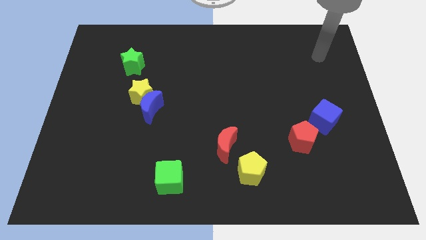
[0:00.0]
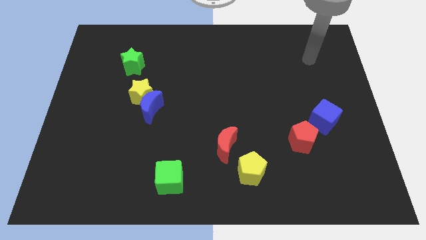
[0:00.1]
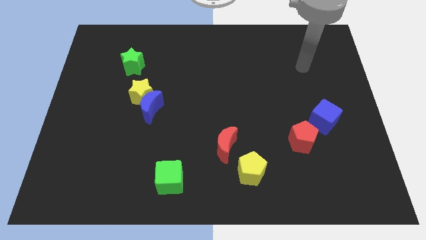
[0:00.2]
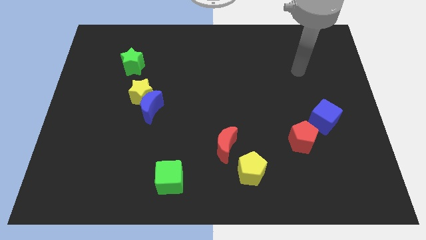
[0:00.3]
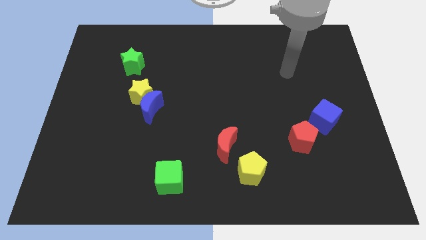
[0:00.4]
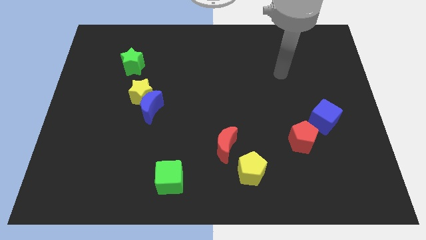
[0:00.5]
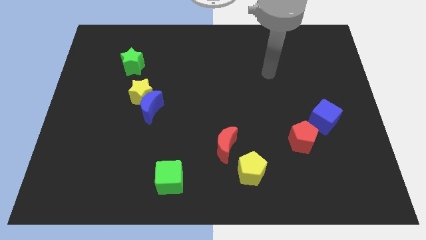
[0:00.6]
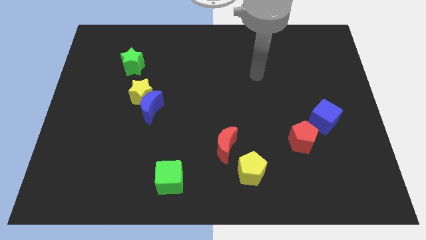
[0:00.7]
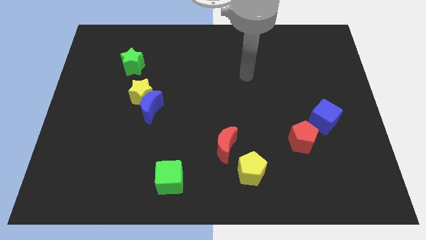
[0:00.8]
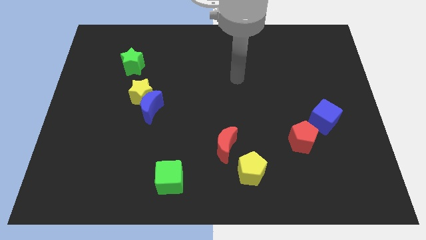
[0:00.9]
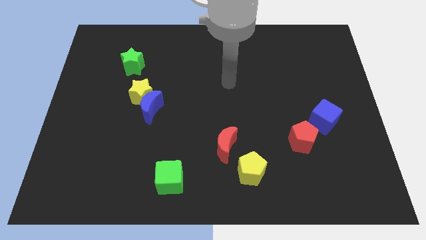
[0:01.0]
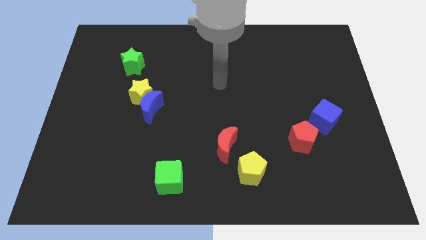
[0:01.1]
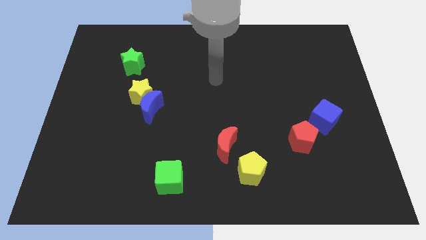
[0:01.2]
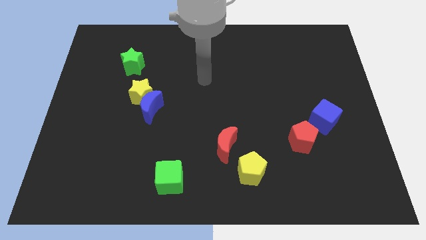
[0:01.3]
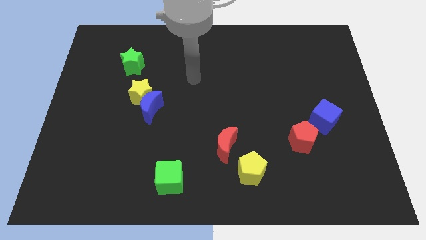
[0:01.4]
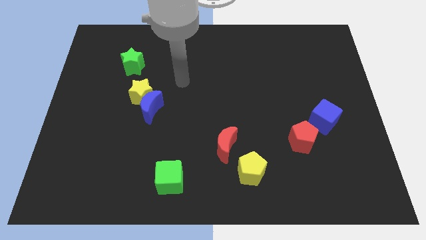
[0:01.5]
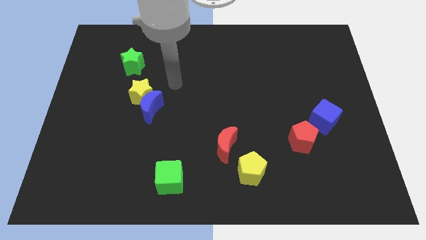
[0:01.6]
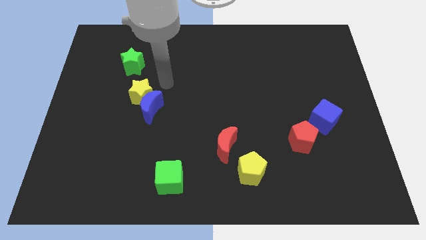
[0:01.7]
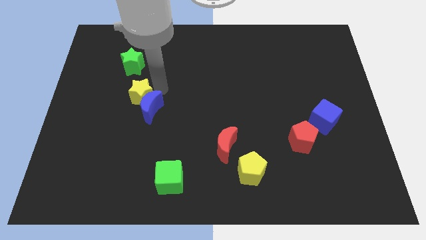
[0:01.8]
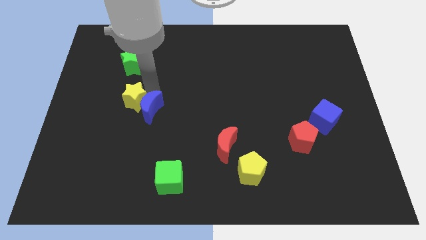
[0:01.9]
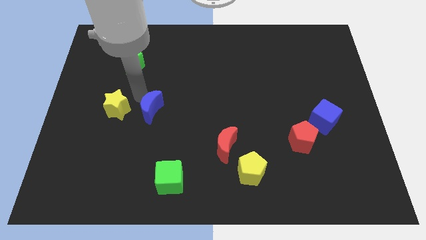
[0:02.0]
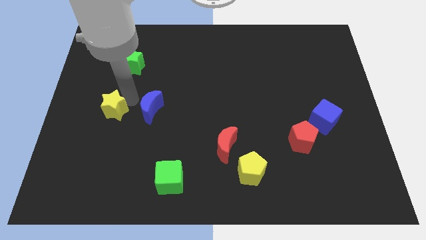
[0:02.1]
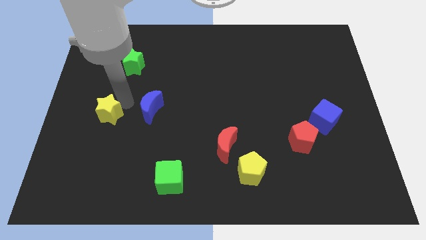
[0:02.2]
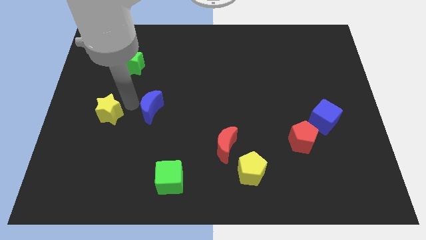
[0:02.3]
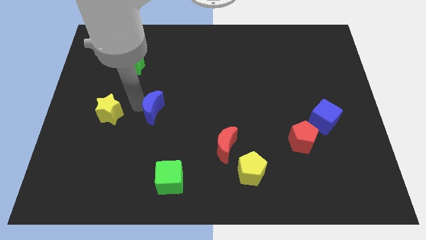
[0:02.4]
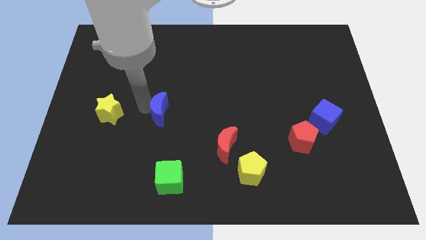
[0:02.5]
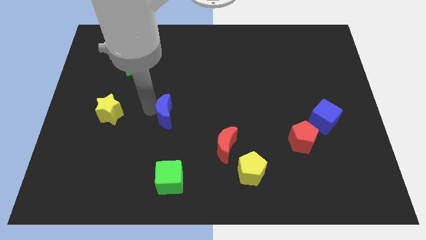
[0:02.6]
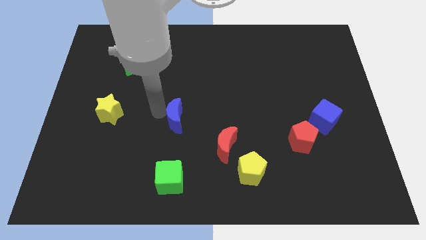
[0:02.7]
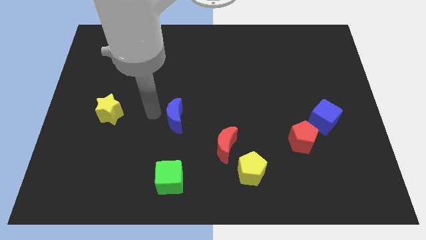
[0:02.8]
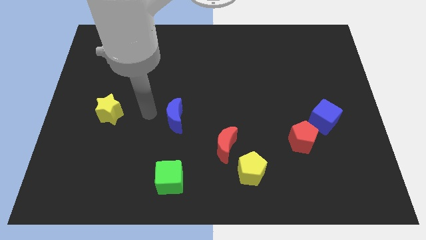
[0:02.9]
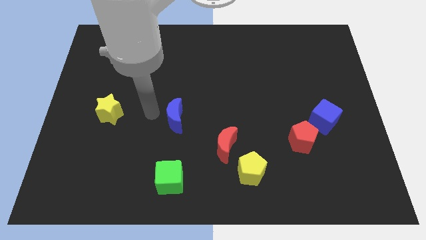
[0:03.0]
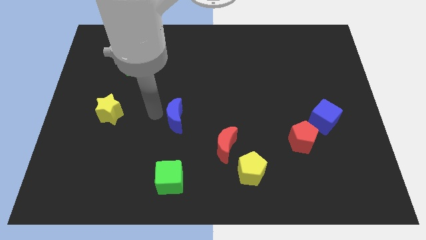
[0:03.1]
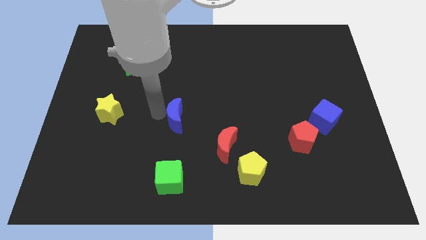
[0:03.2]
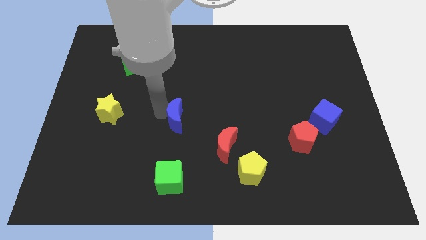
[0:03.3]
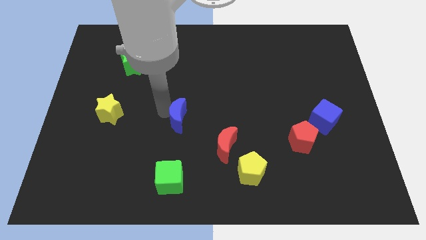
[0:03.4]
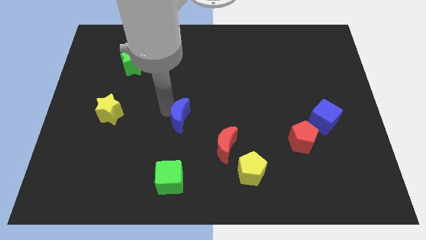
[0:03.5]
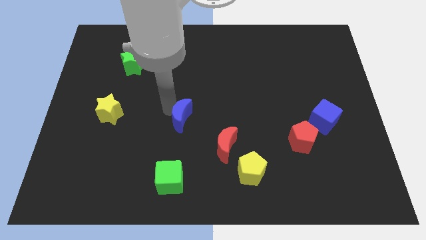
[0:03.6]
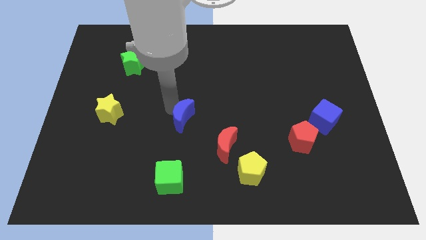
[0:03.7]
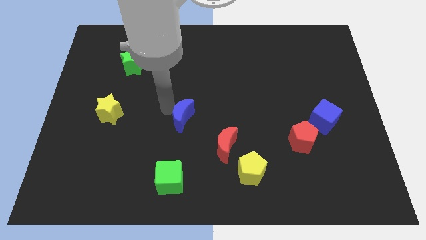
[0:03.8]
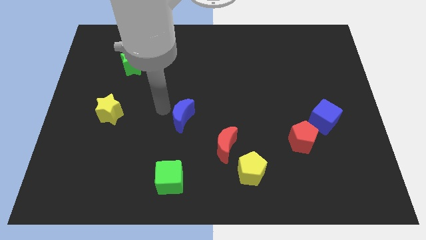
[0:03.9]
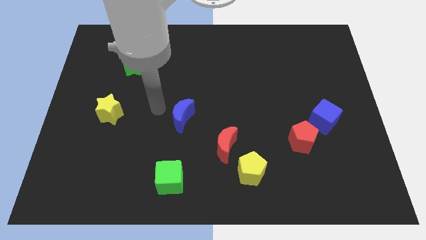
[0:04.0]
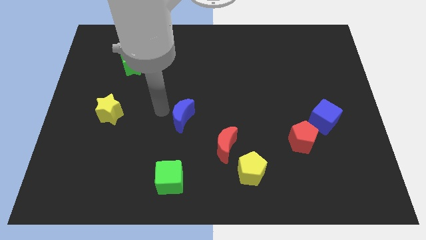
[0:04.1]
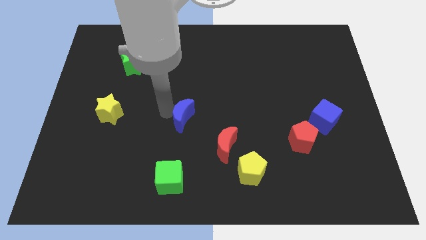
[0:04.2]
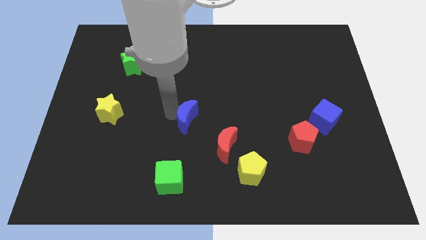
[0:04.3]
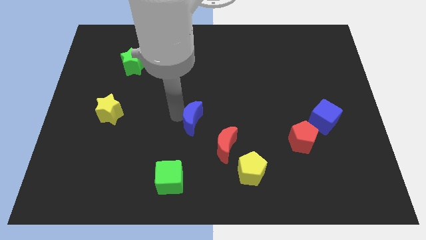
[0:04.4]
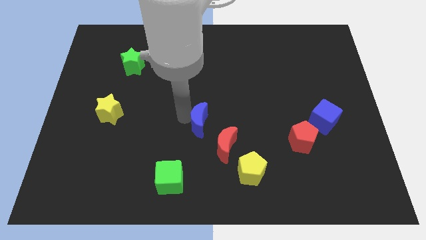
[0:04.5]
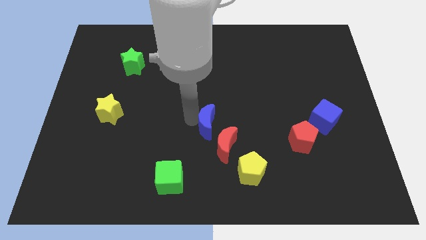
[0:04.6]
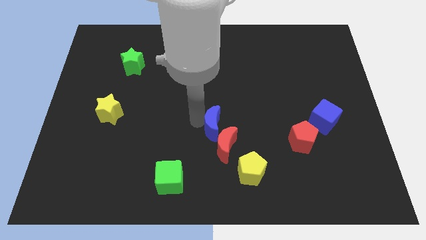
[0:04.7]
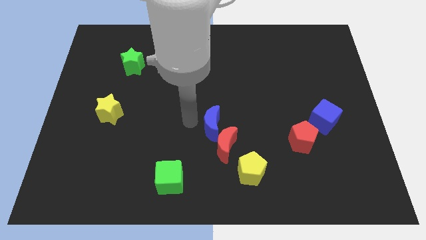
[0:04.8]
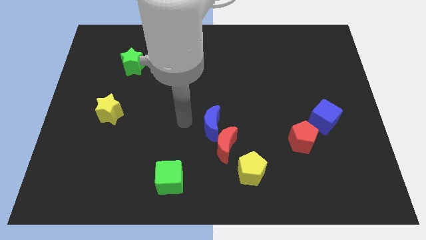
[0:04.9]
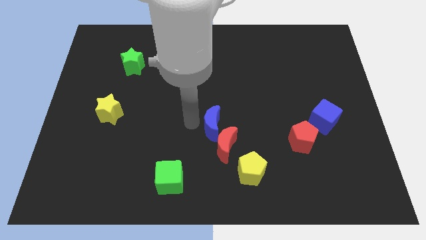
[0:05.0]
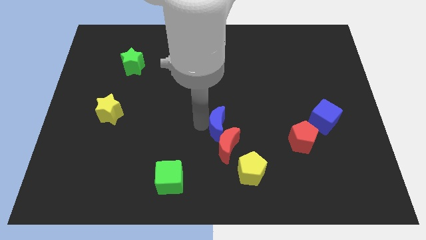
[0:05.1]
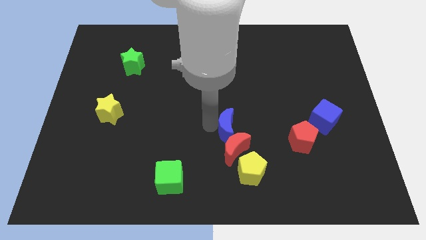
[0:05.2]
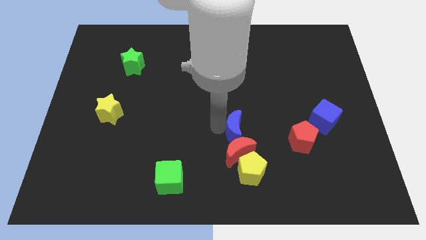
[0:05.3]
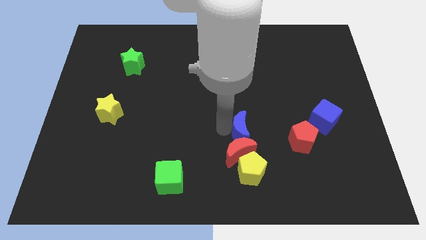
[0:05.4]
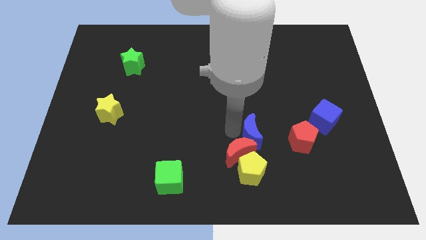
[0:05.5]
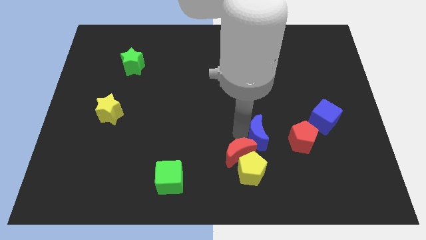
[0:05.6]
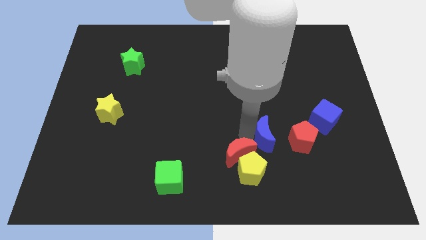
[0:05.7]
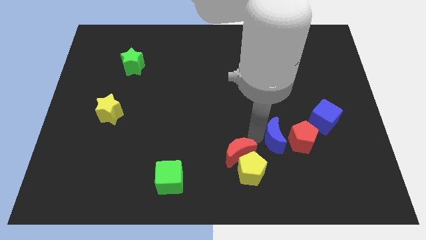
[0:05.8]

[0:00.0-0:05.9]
slide the blue moon towards the red pentagon

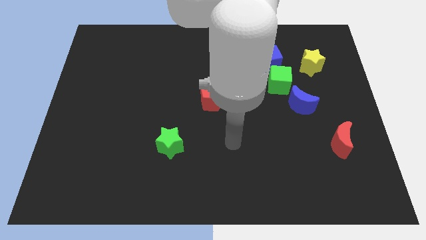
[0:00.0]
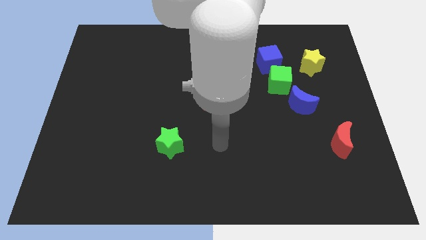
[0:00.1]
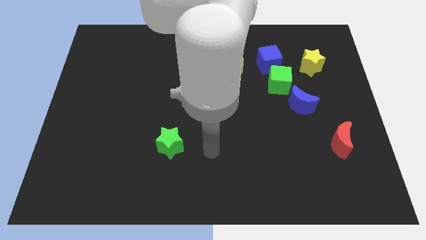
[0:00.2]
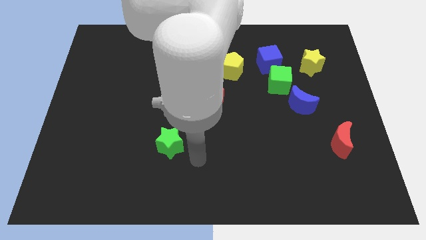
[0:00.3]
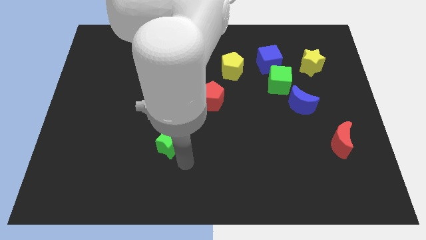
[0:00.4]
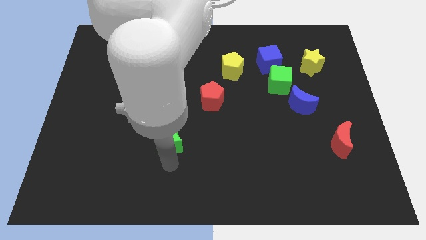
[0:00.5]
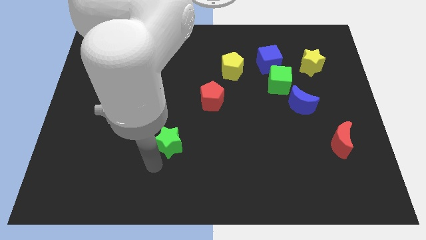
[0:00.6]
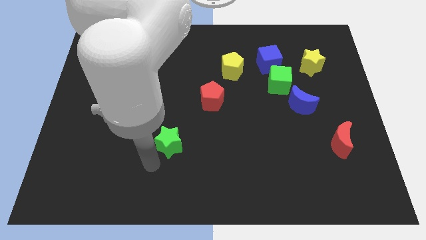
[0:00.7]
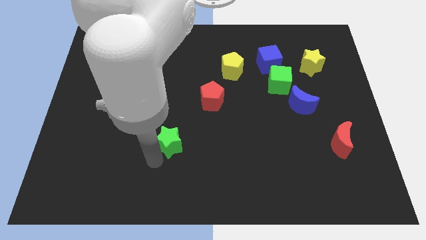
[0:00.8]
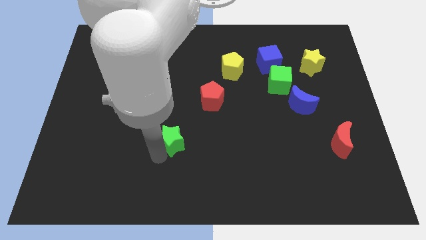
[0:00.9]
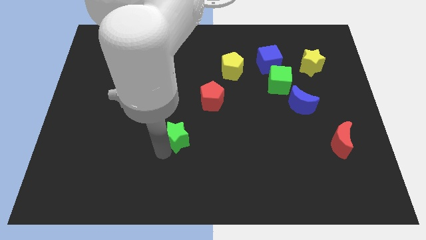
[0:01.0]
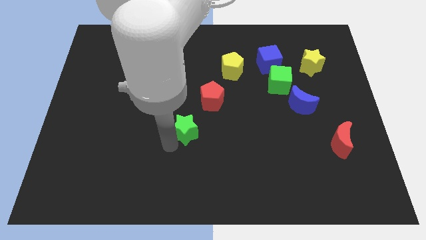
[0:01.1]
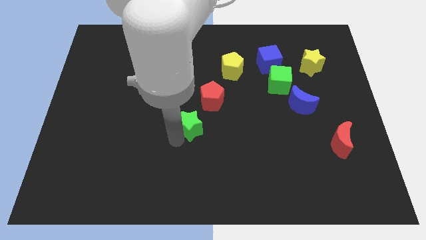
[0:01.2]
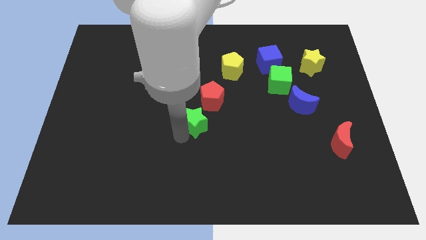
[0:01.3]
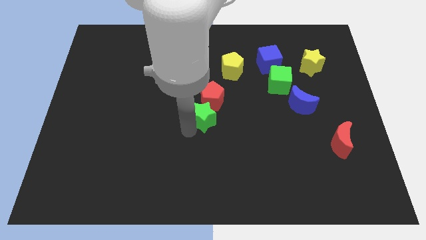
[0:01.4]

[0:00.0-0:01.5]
put the green star to the red pentagon

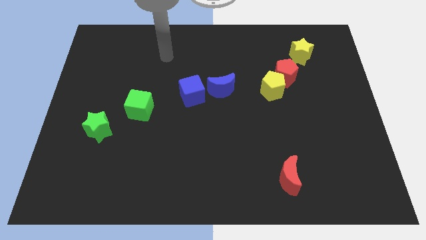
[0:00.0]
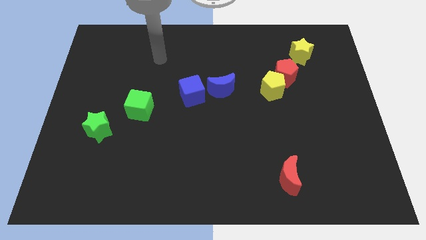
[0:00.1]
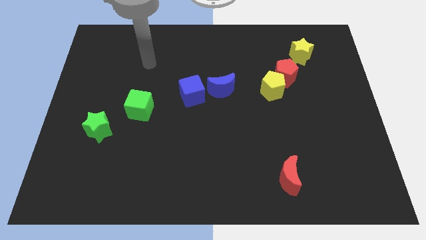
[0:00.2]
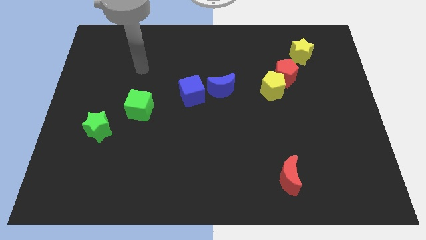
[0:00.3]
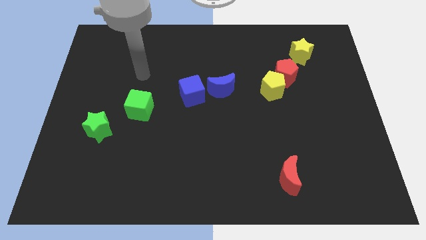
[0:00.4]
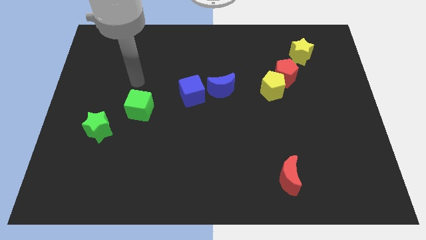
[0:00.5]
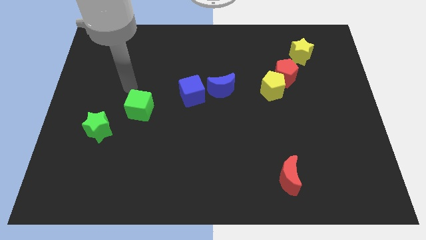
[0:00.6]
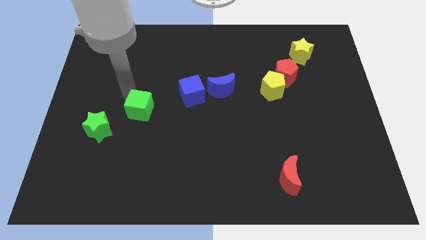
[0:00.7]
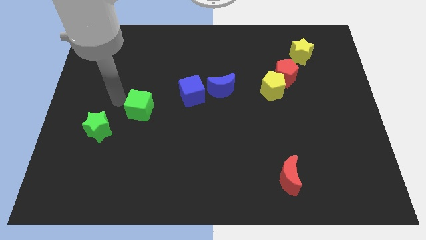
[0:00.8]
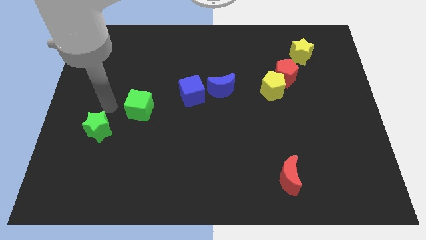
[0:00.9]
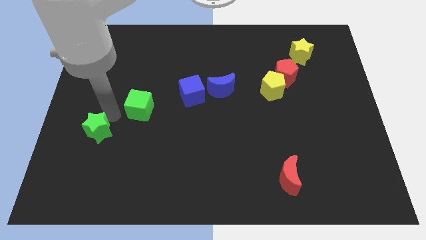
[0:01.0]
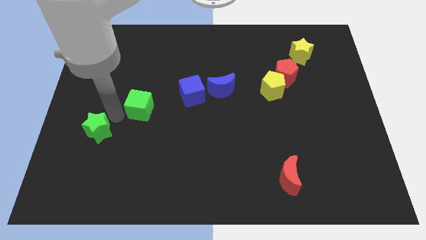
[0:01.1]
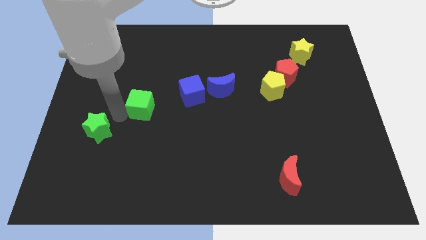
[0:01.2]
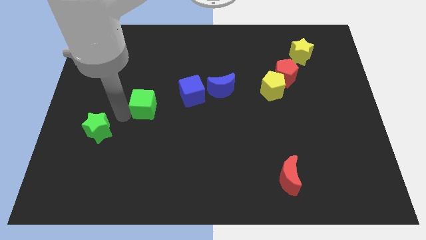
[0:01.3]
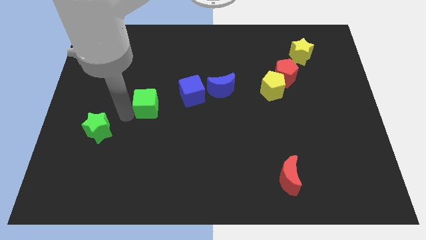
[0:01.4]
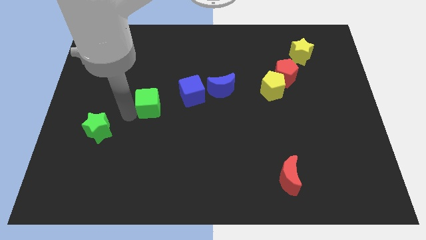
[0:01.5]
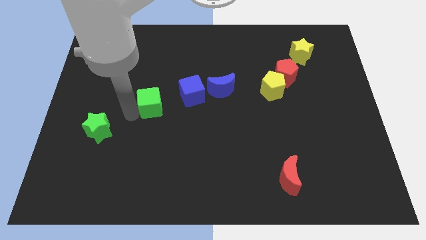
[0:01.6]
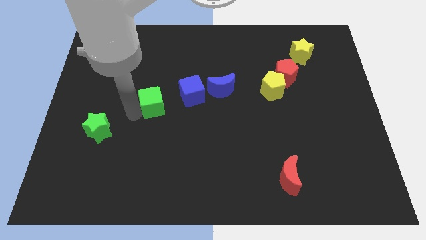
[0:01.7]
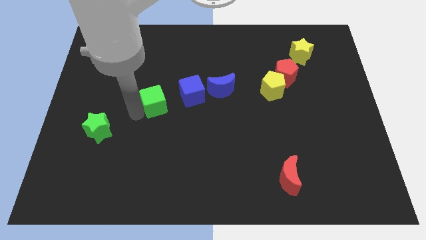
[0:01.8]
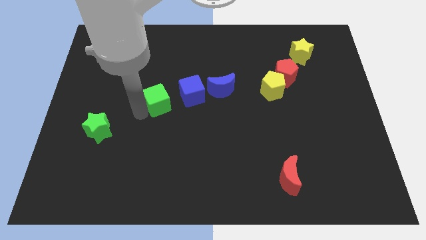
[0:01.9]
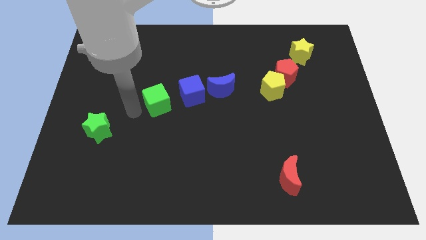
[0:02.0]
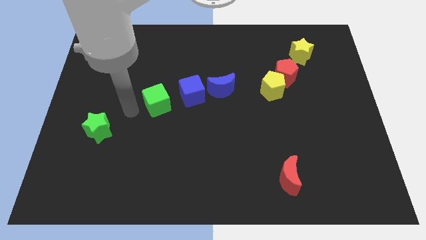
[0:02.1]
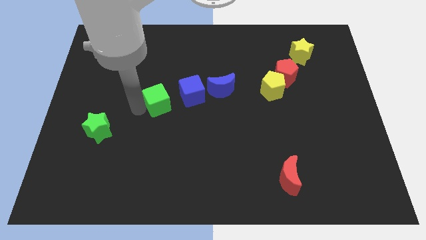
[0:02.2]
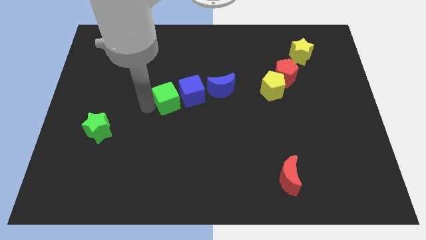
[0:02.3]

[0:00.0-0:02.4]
slide the green cube next to the blue cube
